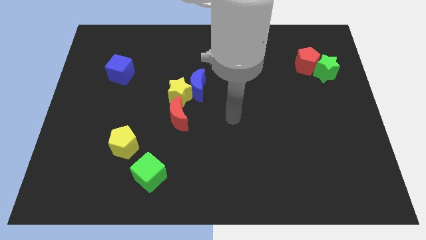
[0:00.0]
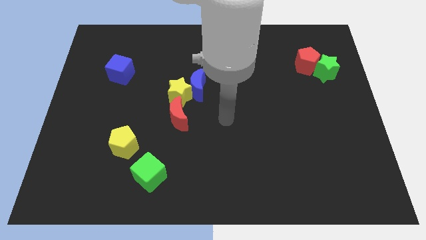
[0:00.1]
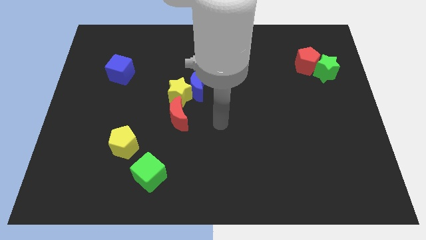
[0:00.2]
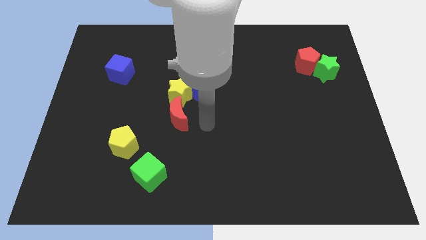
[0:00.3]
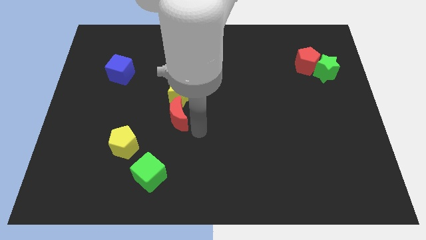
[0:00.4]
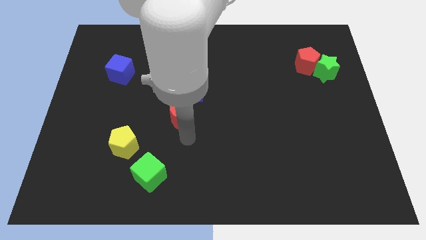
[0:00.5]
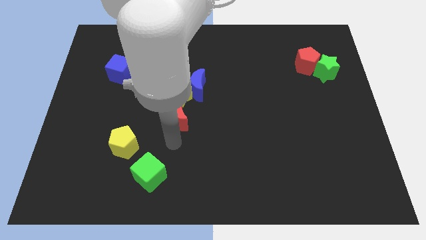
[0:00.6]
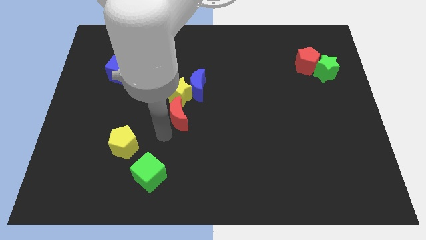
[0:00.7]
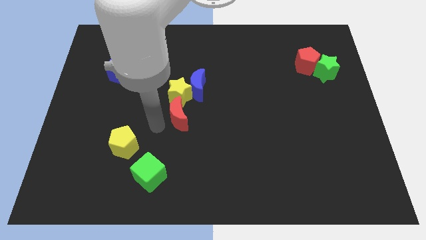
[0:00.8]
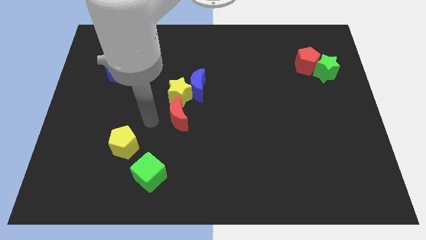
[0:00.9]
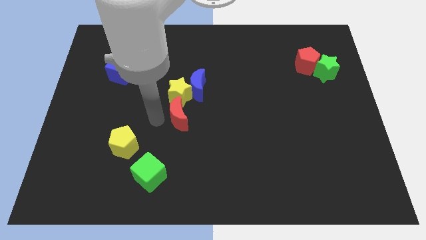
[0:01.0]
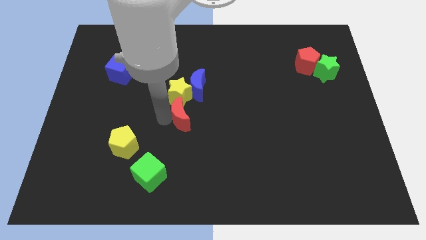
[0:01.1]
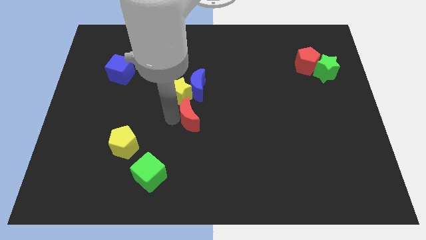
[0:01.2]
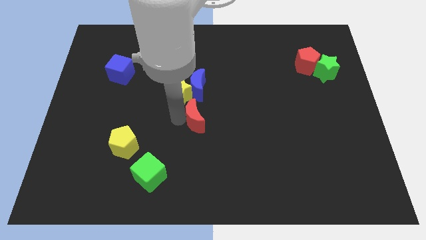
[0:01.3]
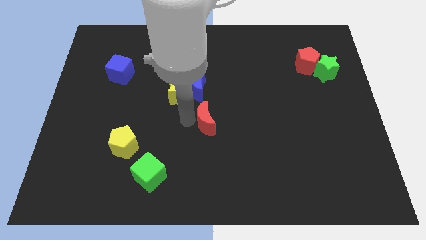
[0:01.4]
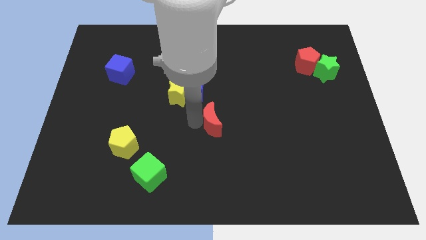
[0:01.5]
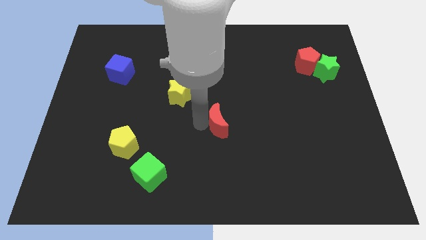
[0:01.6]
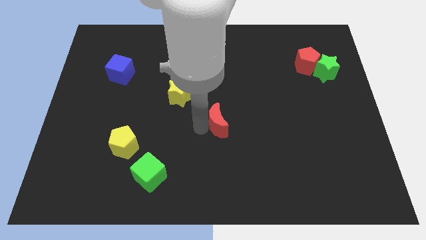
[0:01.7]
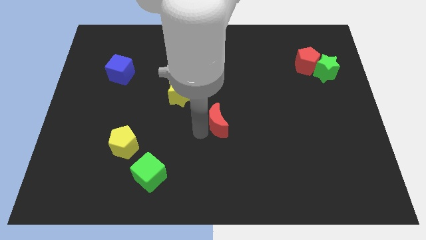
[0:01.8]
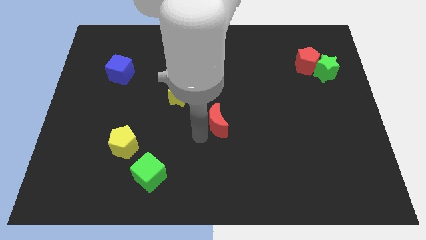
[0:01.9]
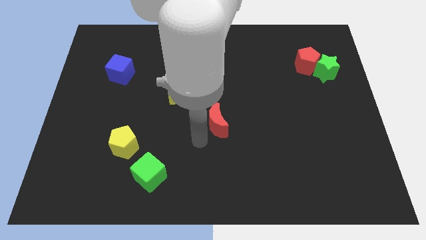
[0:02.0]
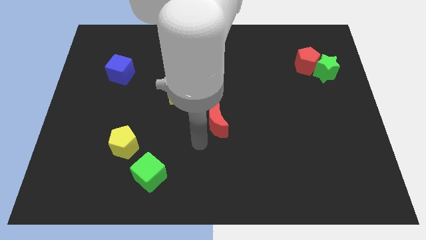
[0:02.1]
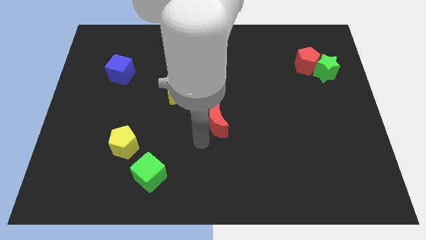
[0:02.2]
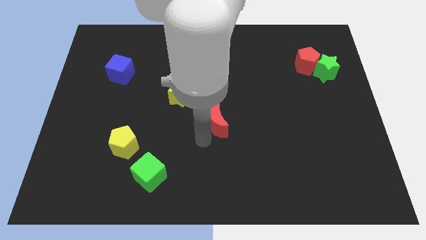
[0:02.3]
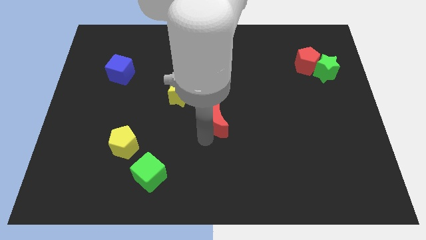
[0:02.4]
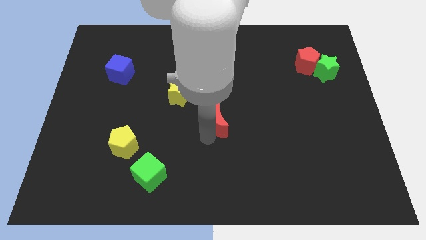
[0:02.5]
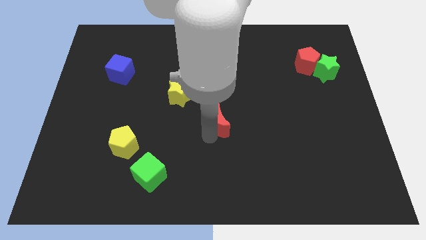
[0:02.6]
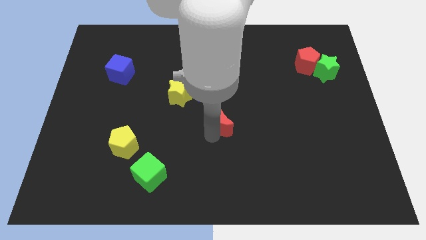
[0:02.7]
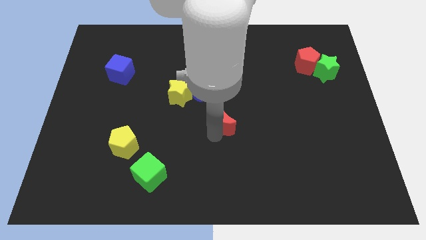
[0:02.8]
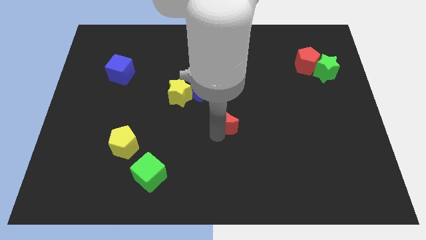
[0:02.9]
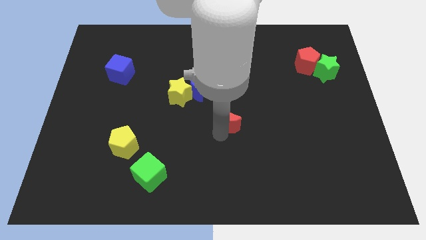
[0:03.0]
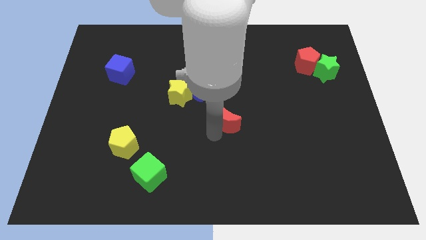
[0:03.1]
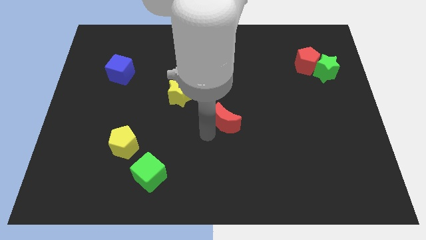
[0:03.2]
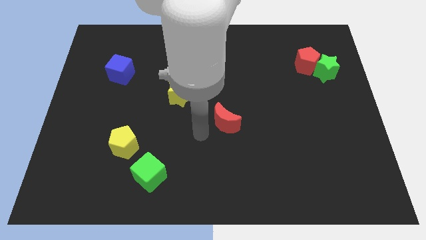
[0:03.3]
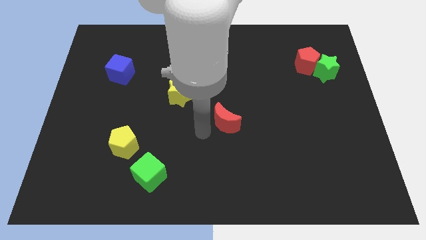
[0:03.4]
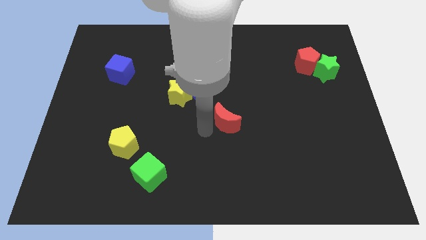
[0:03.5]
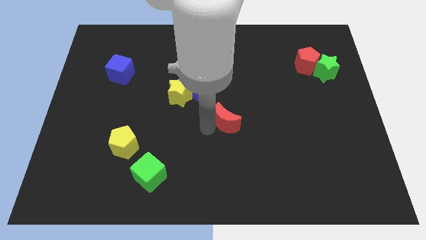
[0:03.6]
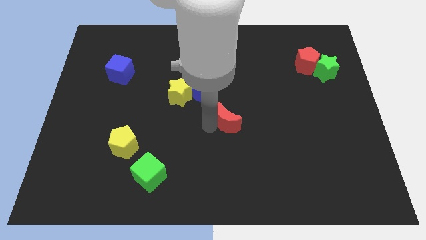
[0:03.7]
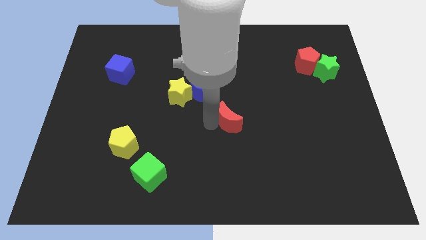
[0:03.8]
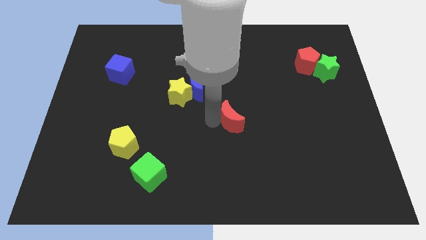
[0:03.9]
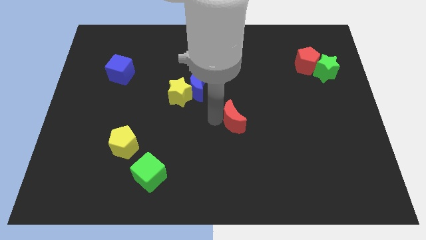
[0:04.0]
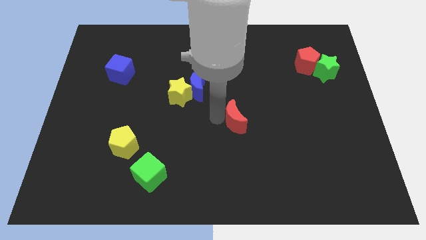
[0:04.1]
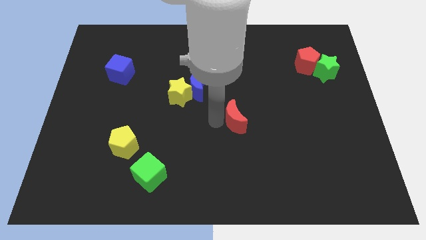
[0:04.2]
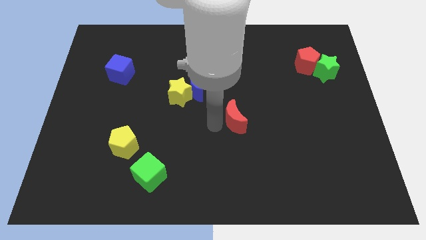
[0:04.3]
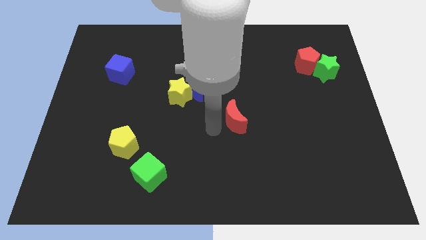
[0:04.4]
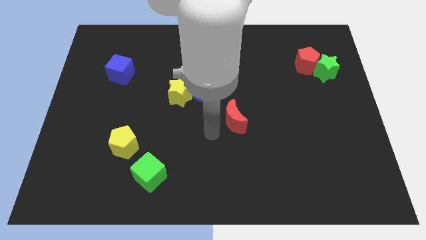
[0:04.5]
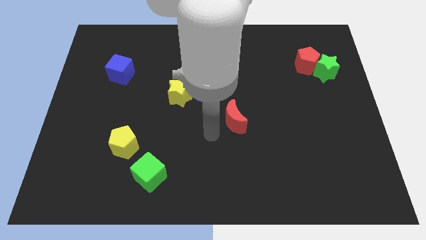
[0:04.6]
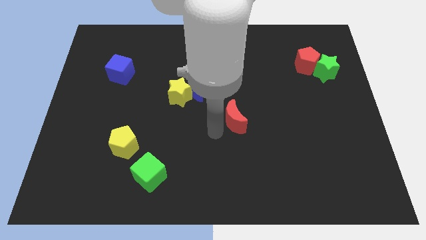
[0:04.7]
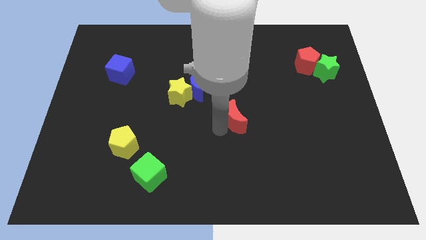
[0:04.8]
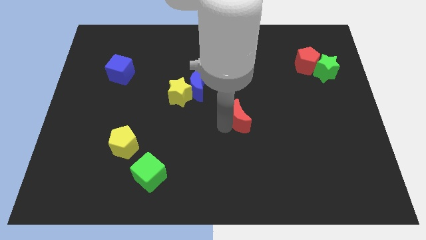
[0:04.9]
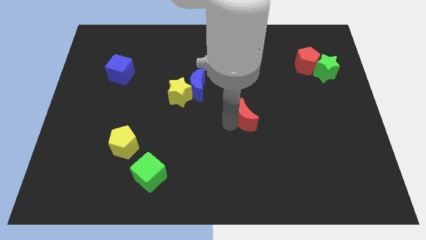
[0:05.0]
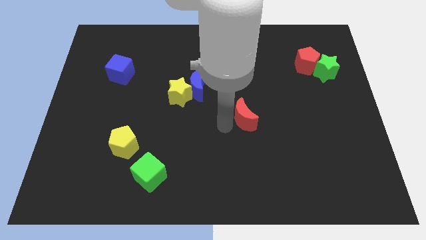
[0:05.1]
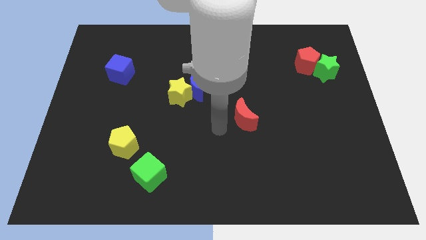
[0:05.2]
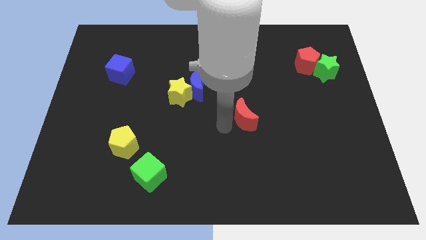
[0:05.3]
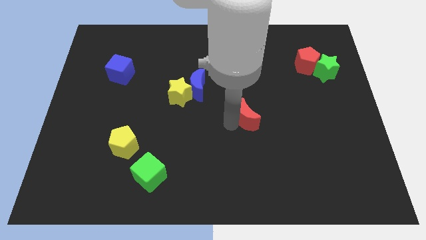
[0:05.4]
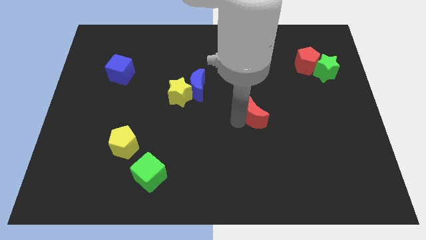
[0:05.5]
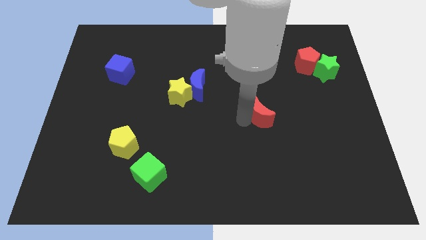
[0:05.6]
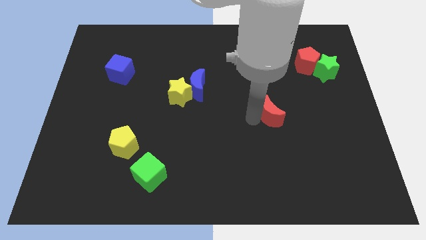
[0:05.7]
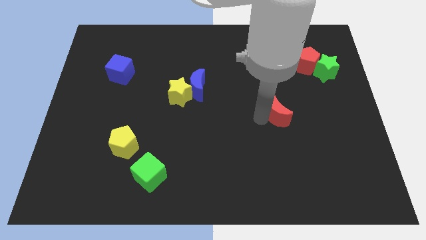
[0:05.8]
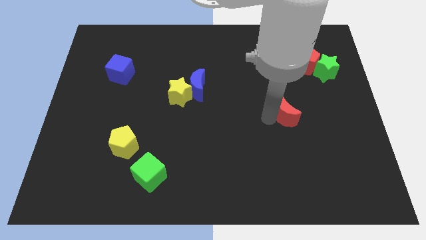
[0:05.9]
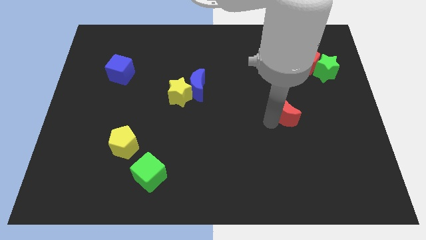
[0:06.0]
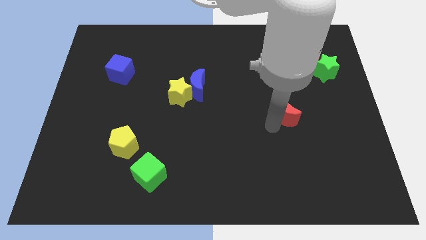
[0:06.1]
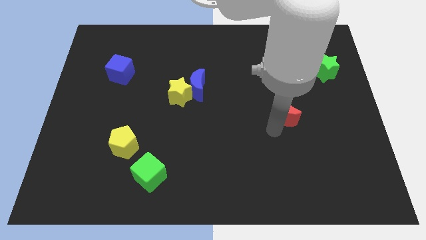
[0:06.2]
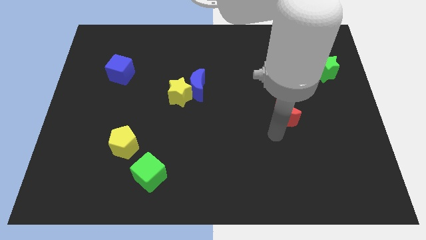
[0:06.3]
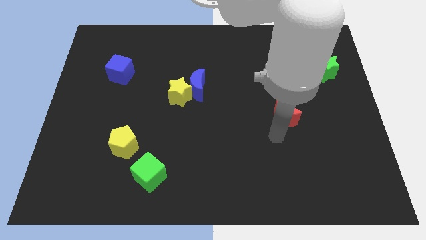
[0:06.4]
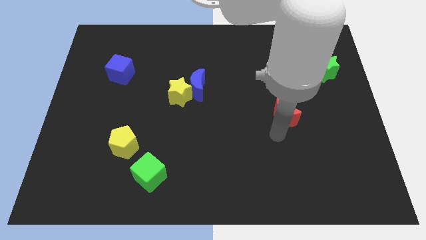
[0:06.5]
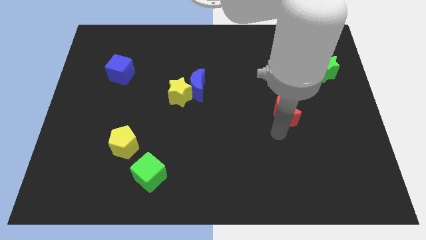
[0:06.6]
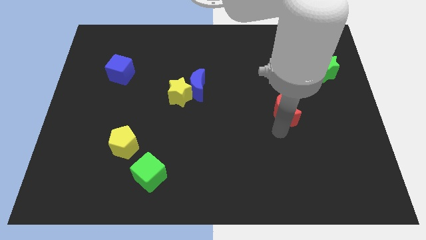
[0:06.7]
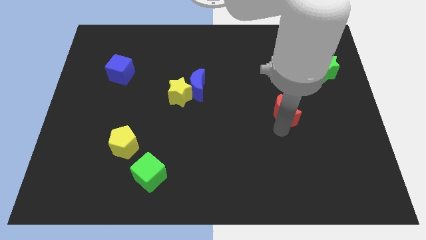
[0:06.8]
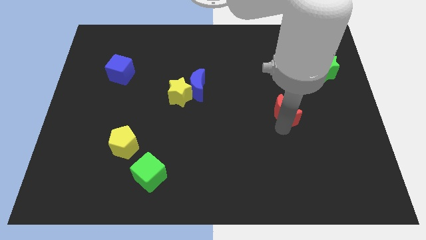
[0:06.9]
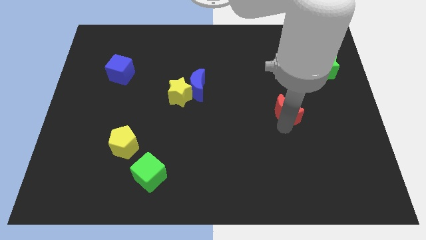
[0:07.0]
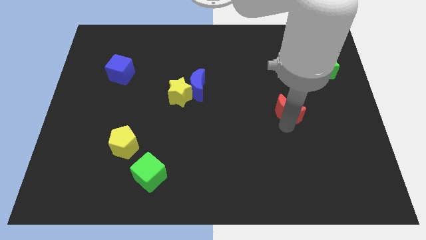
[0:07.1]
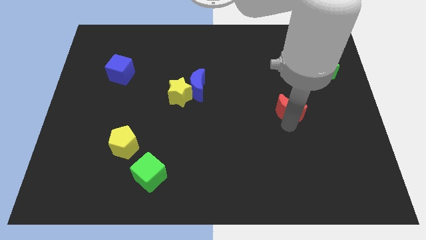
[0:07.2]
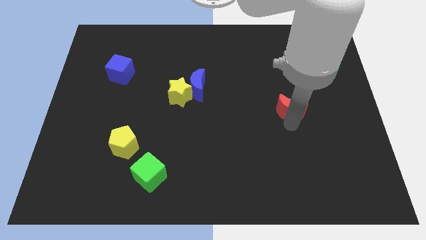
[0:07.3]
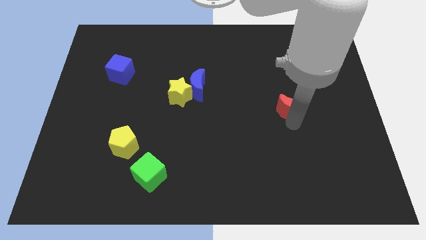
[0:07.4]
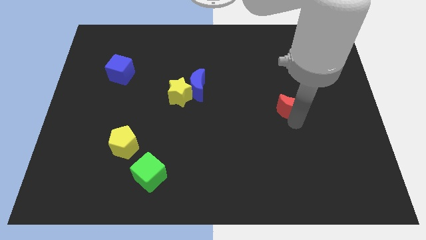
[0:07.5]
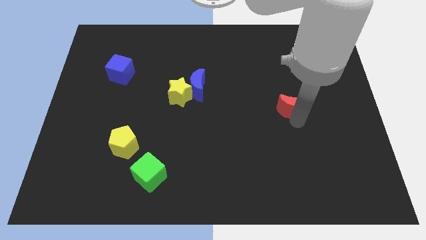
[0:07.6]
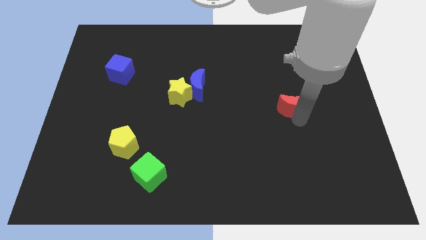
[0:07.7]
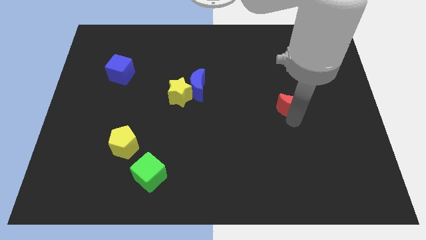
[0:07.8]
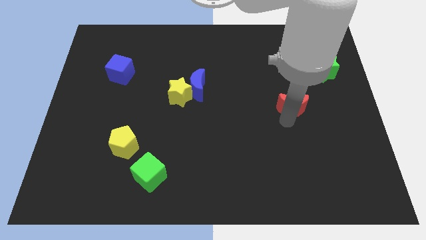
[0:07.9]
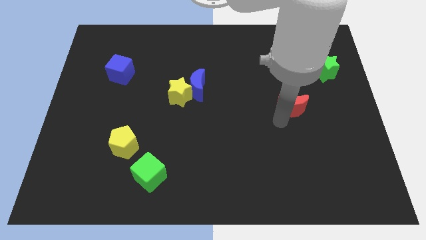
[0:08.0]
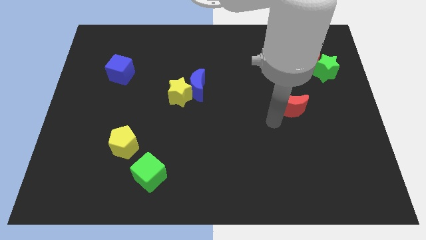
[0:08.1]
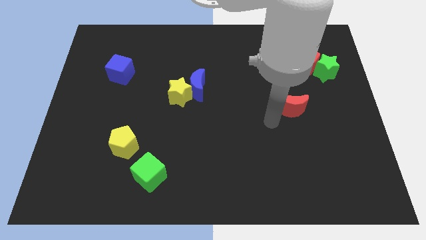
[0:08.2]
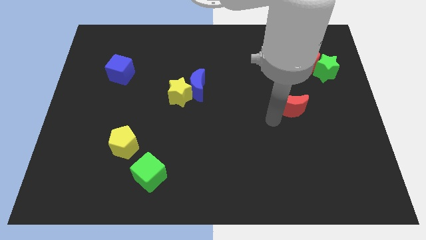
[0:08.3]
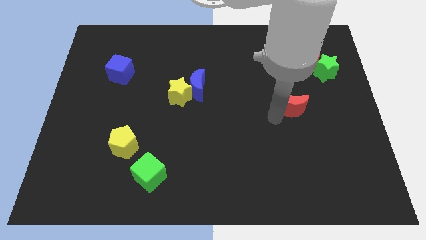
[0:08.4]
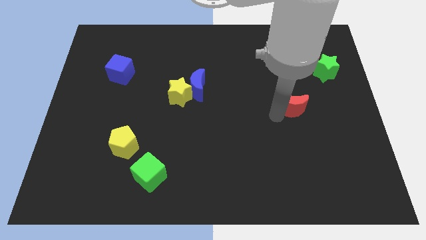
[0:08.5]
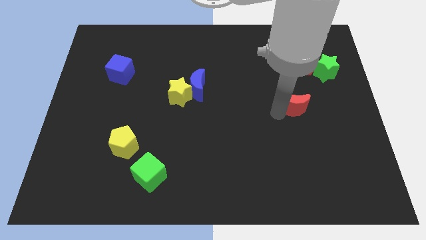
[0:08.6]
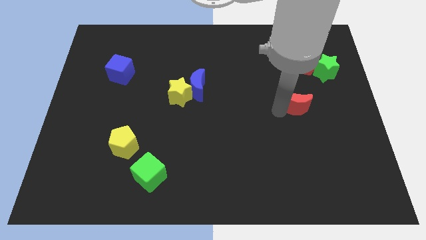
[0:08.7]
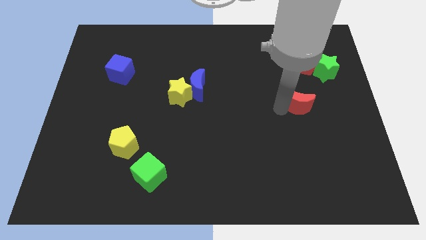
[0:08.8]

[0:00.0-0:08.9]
put the red moon to the bottom side of the red pentagon
